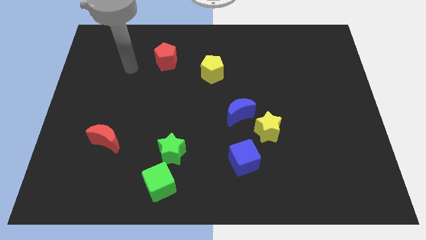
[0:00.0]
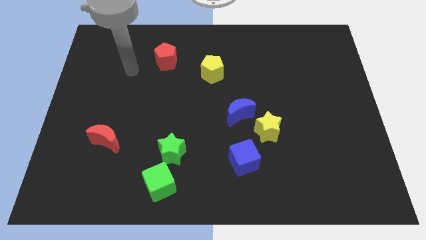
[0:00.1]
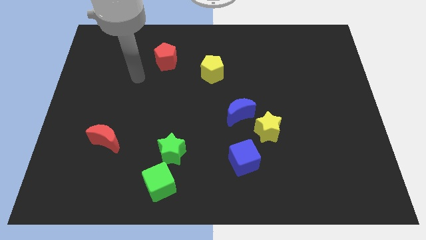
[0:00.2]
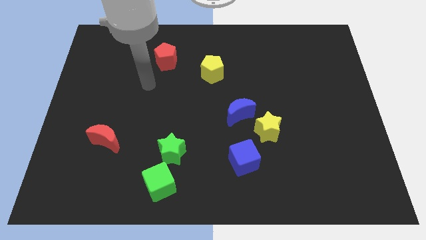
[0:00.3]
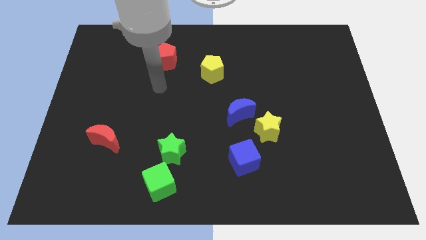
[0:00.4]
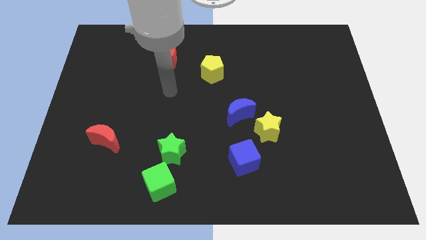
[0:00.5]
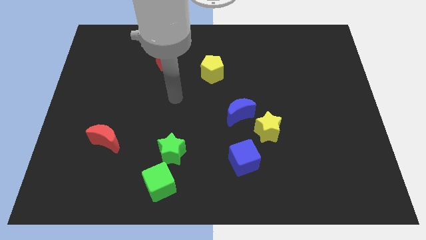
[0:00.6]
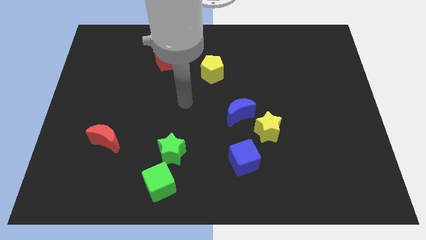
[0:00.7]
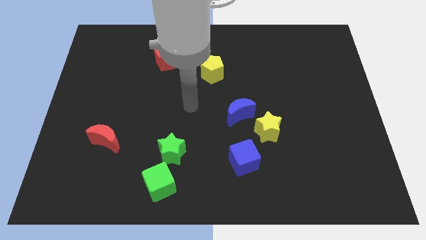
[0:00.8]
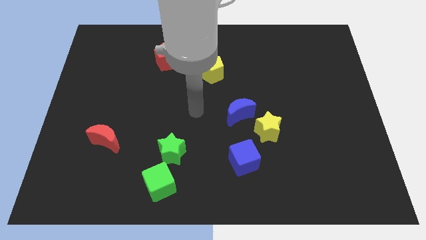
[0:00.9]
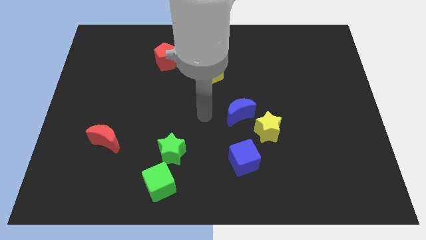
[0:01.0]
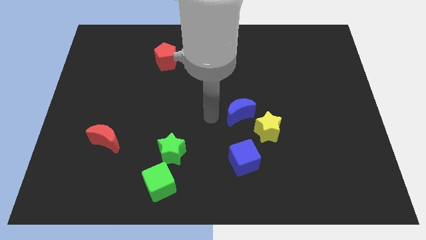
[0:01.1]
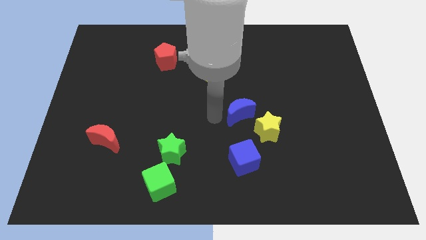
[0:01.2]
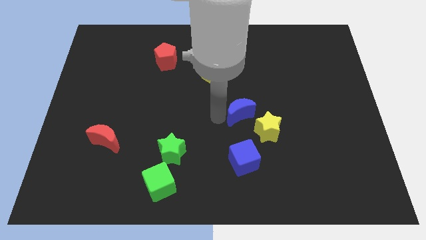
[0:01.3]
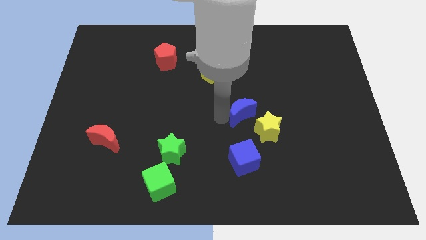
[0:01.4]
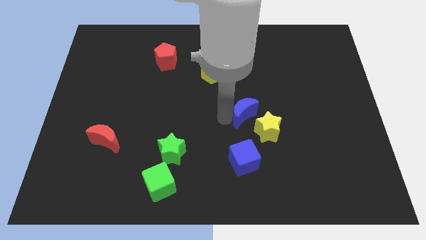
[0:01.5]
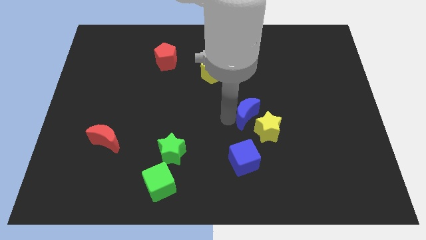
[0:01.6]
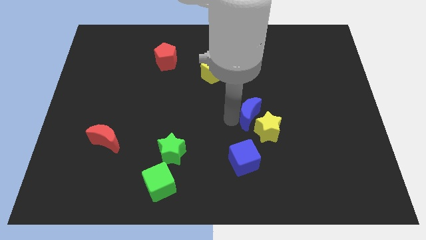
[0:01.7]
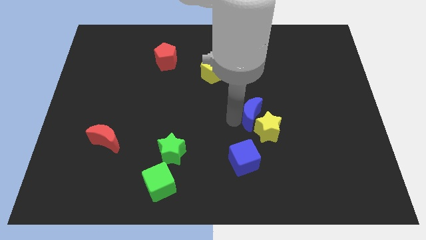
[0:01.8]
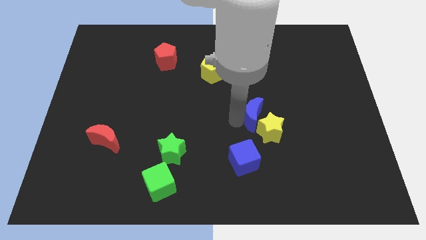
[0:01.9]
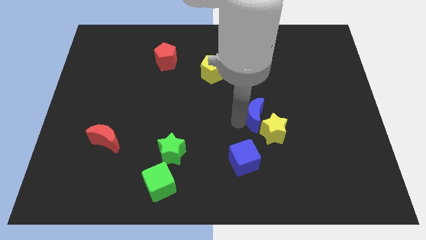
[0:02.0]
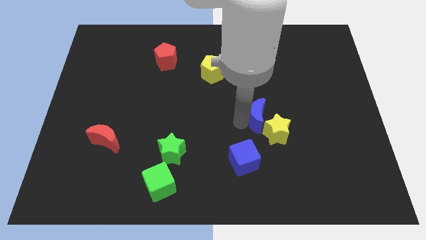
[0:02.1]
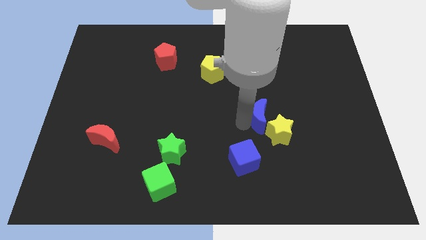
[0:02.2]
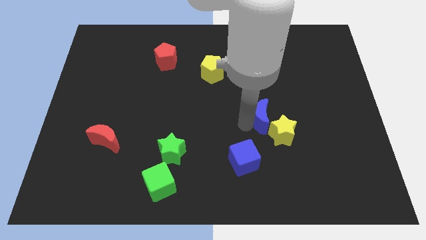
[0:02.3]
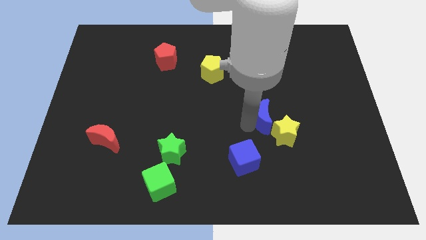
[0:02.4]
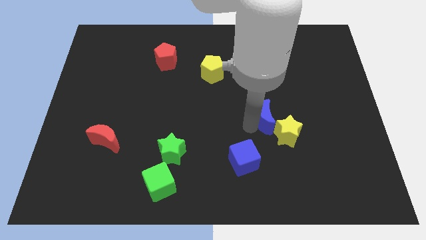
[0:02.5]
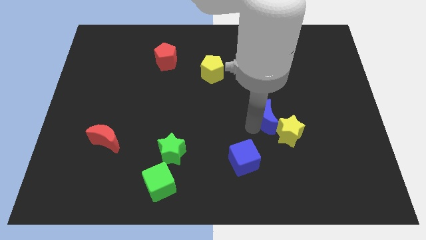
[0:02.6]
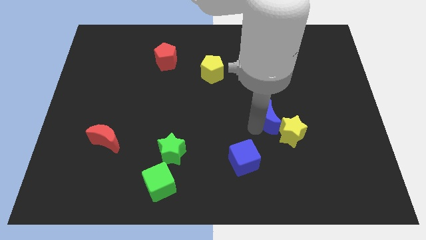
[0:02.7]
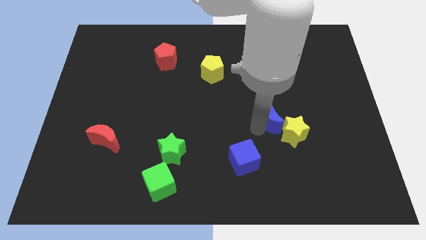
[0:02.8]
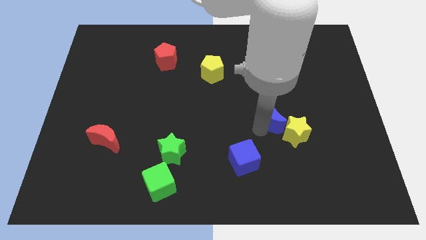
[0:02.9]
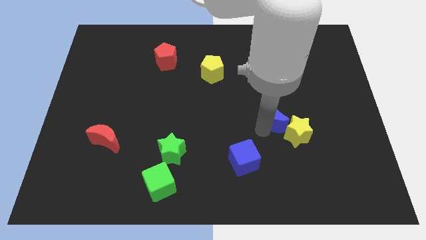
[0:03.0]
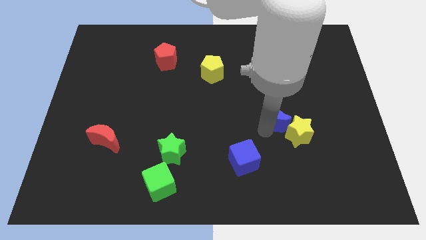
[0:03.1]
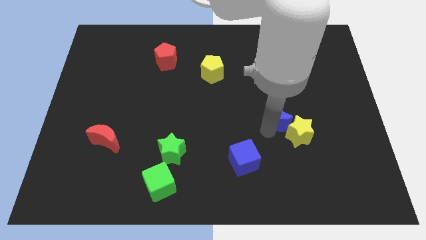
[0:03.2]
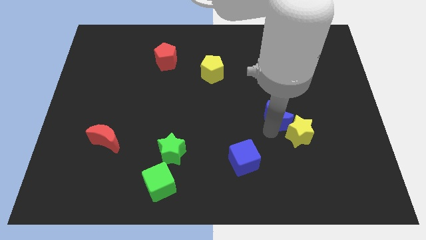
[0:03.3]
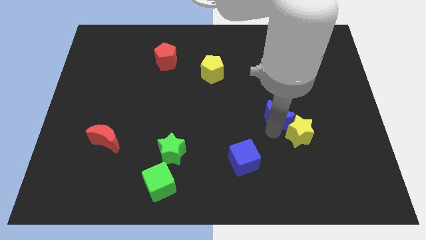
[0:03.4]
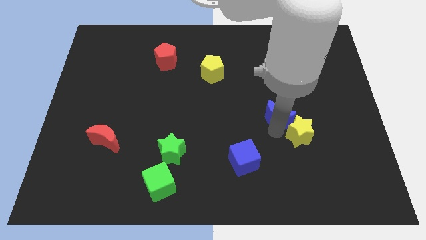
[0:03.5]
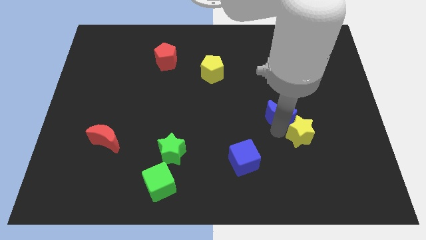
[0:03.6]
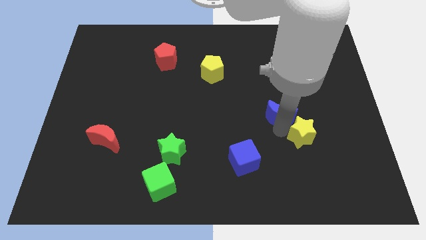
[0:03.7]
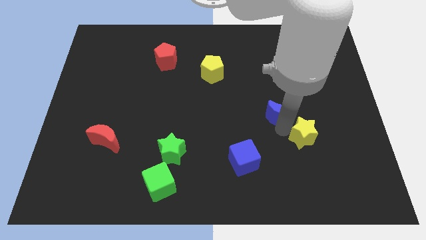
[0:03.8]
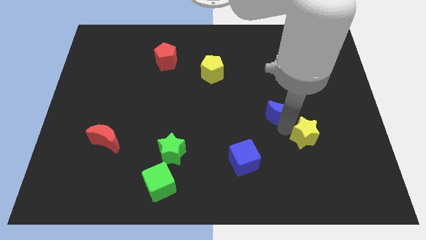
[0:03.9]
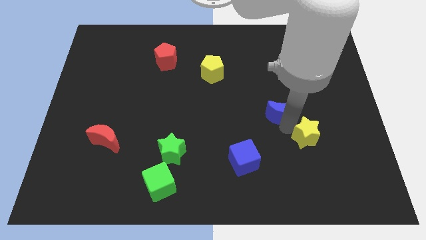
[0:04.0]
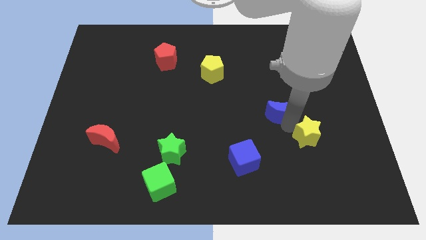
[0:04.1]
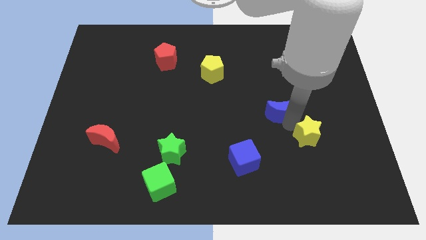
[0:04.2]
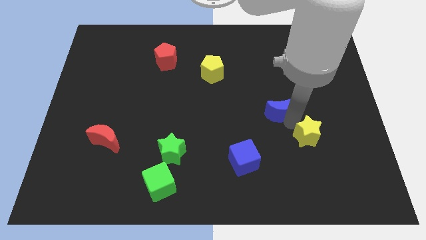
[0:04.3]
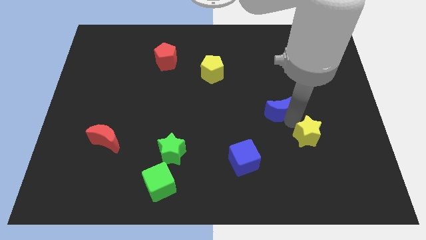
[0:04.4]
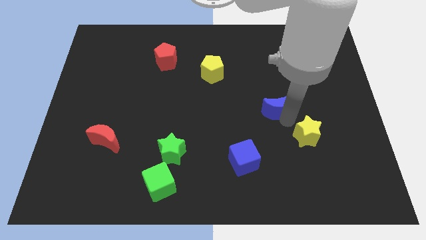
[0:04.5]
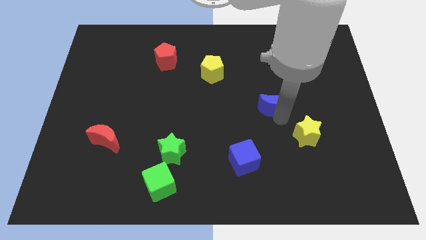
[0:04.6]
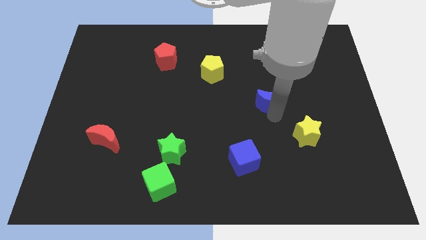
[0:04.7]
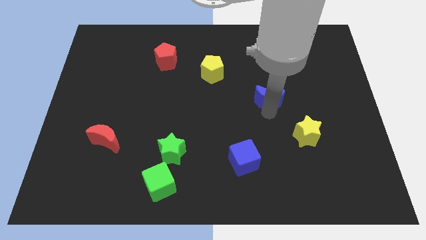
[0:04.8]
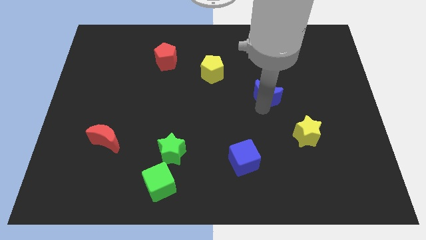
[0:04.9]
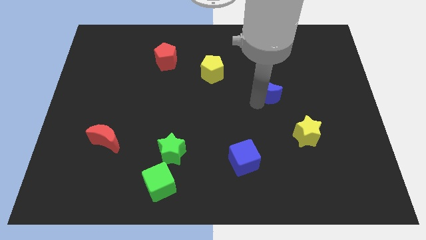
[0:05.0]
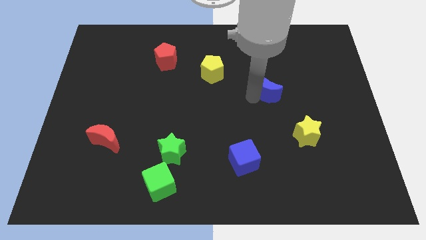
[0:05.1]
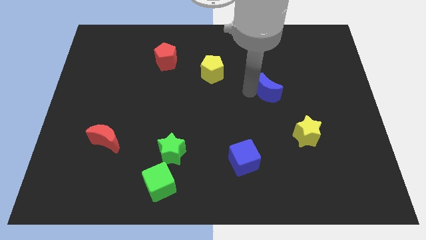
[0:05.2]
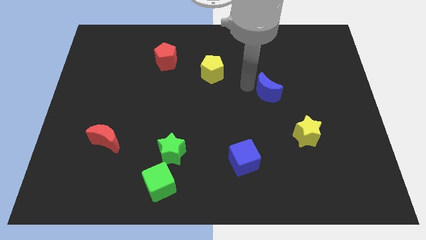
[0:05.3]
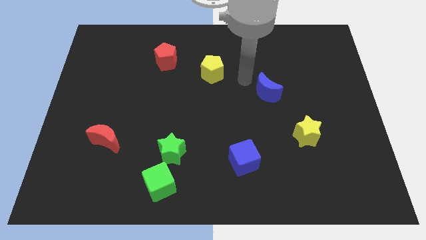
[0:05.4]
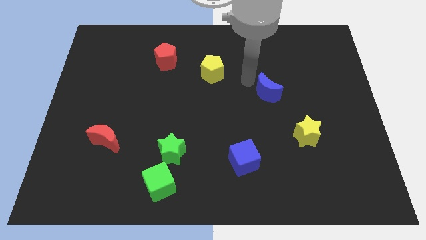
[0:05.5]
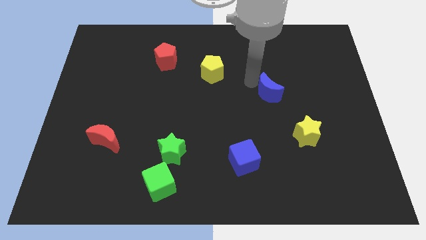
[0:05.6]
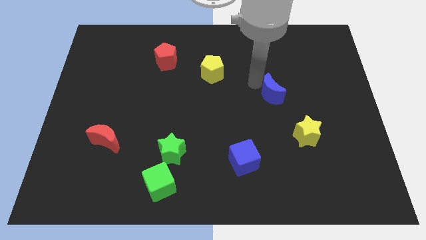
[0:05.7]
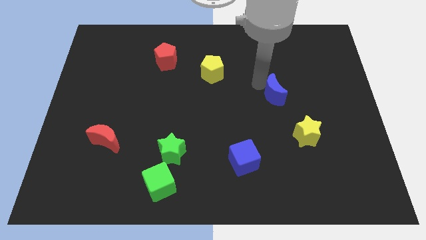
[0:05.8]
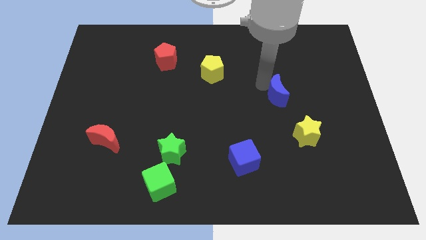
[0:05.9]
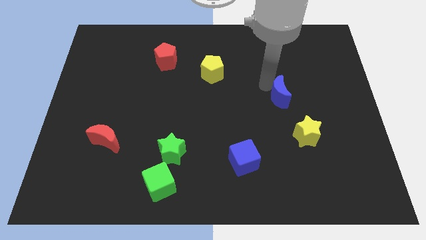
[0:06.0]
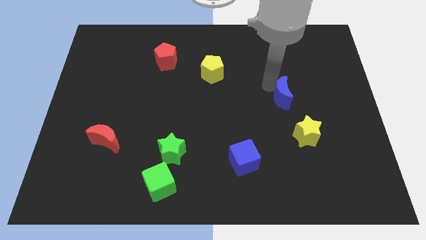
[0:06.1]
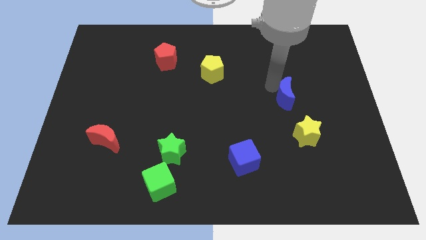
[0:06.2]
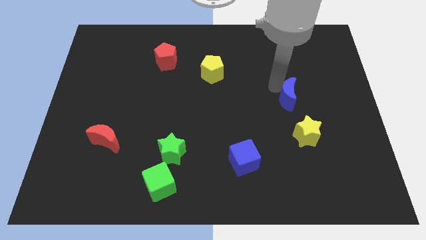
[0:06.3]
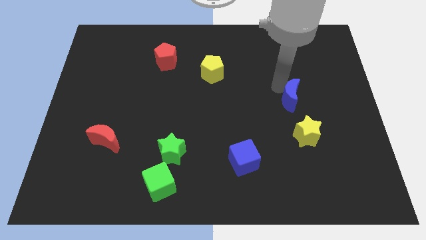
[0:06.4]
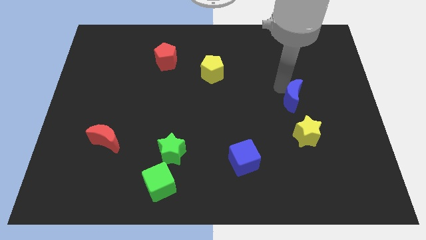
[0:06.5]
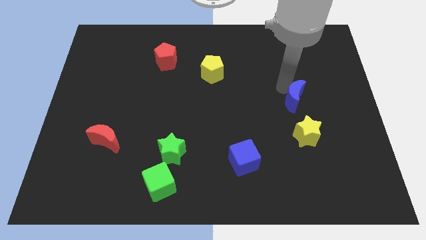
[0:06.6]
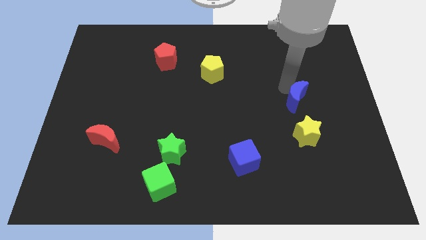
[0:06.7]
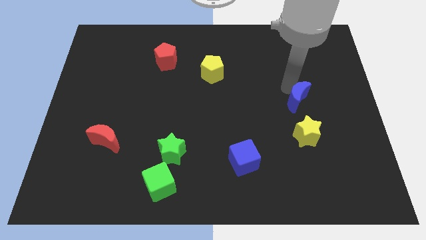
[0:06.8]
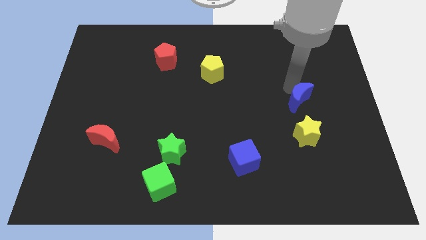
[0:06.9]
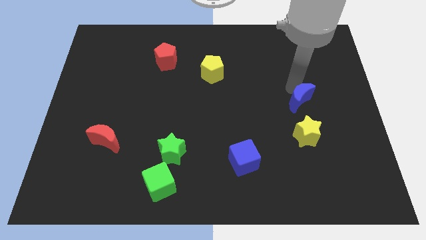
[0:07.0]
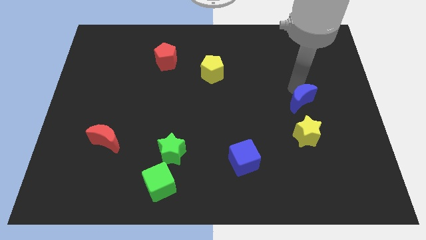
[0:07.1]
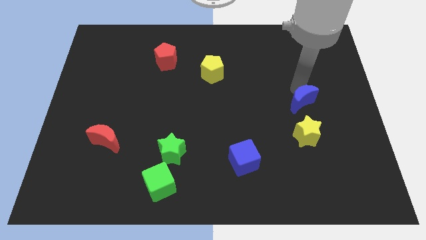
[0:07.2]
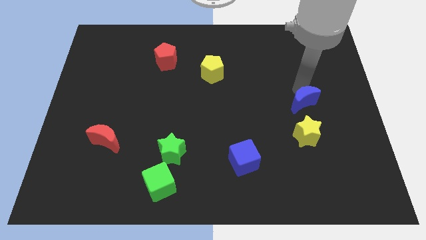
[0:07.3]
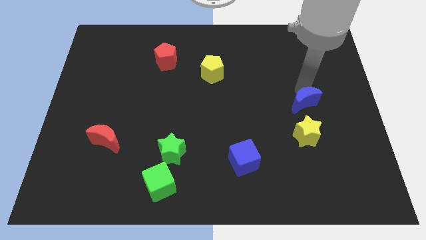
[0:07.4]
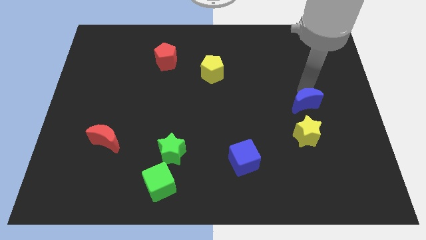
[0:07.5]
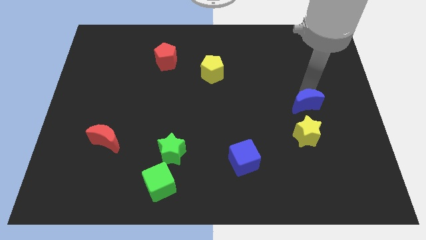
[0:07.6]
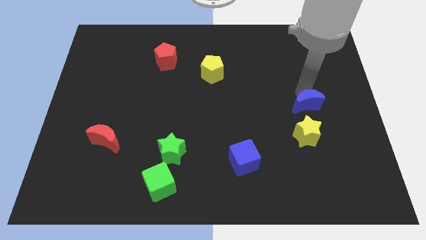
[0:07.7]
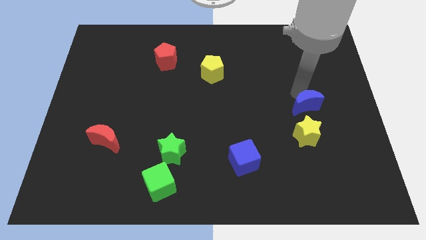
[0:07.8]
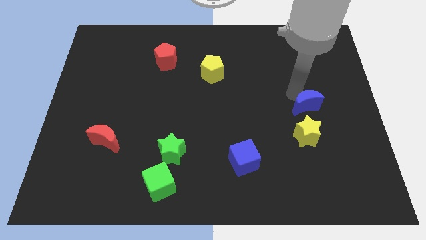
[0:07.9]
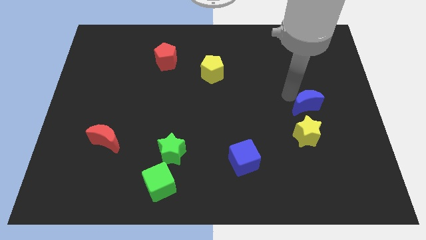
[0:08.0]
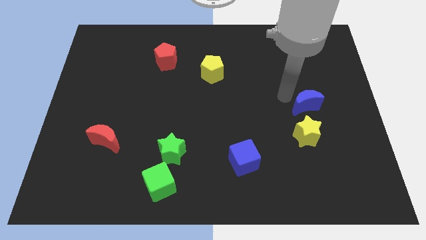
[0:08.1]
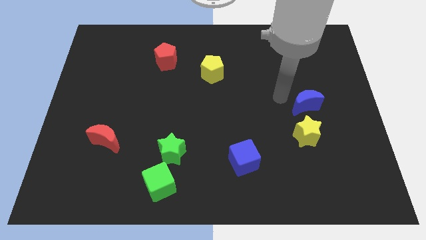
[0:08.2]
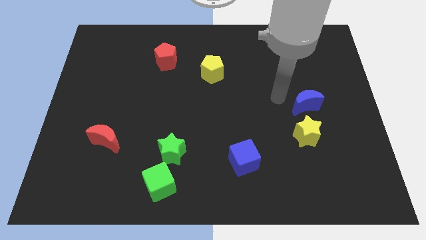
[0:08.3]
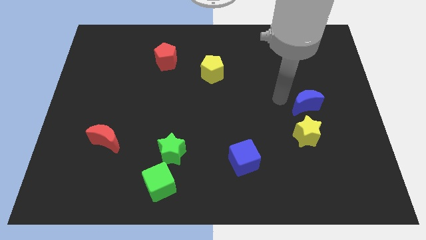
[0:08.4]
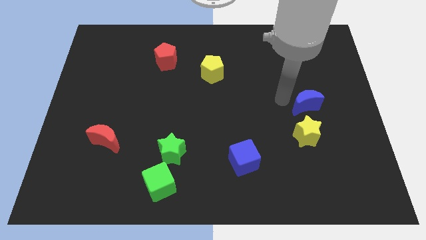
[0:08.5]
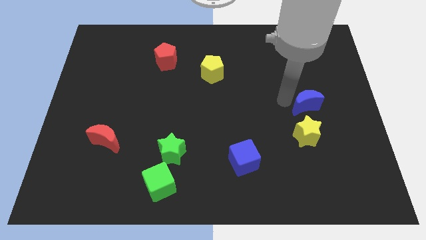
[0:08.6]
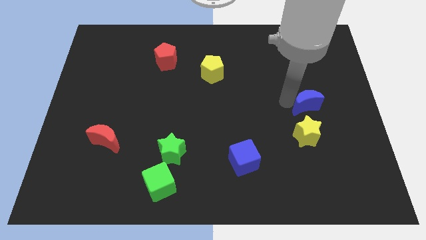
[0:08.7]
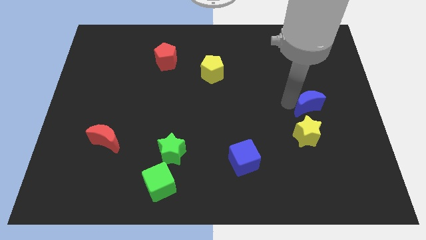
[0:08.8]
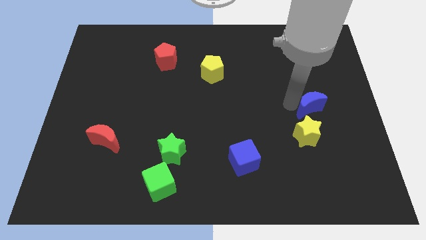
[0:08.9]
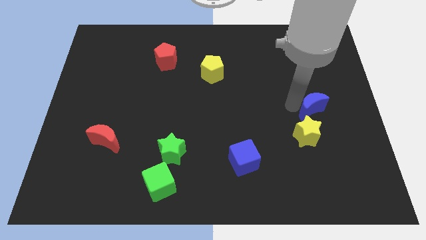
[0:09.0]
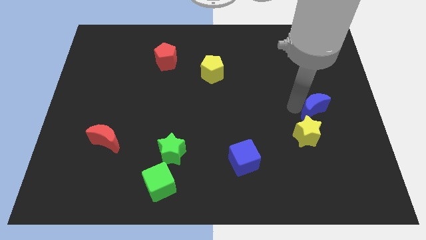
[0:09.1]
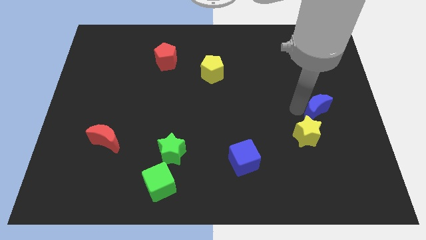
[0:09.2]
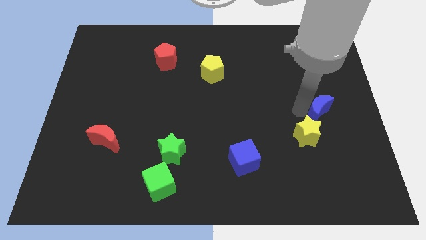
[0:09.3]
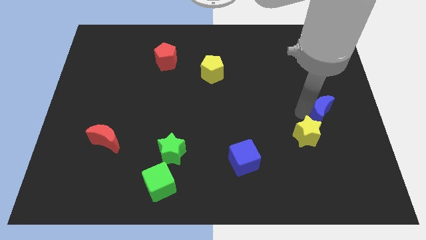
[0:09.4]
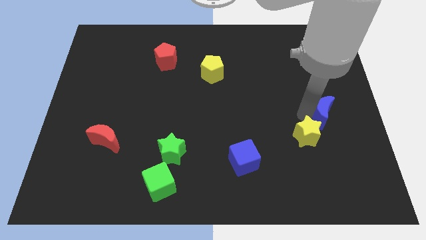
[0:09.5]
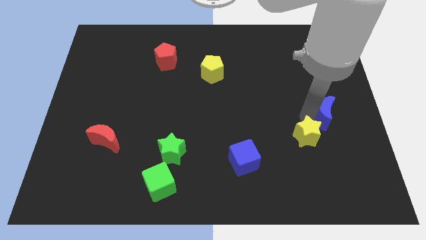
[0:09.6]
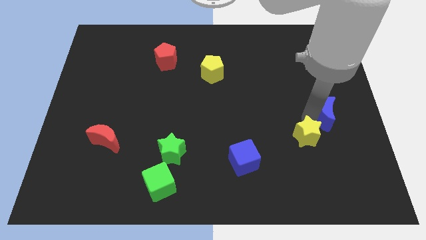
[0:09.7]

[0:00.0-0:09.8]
put the blue moon to the right side
